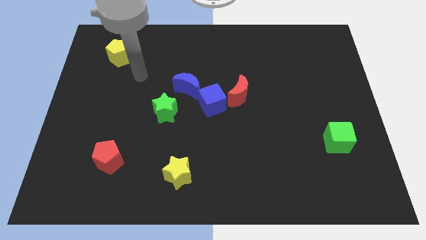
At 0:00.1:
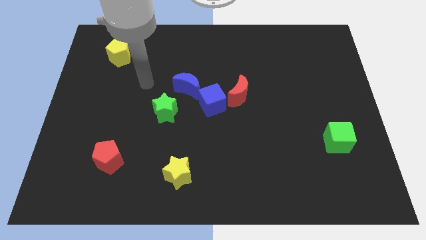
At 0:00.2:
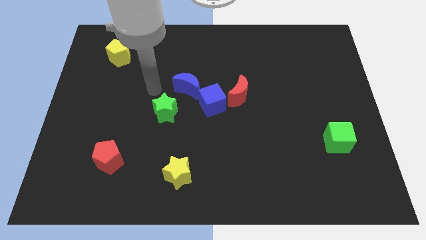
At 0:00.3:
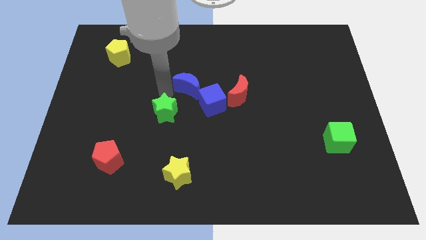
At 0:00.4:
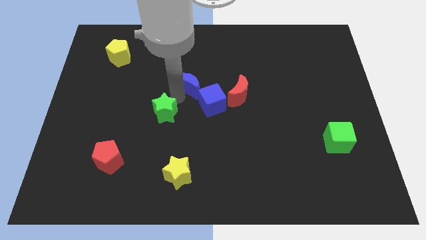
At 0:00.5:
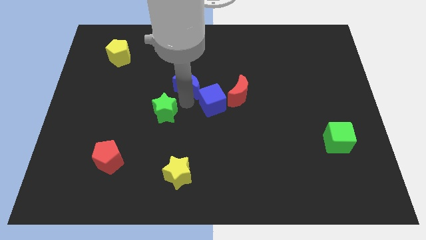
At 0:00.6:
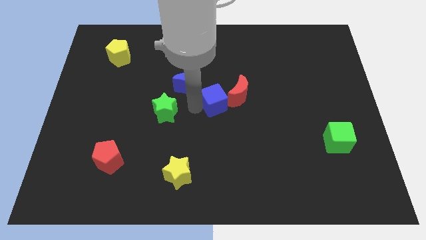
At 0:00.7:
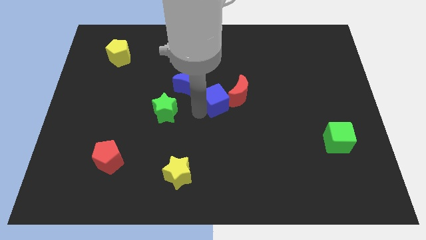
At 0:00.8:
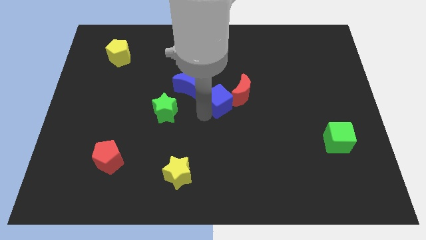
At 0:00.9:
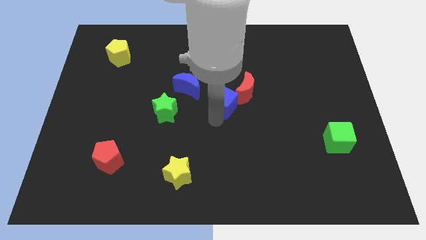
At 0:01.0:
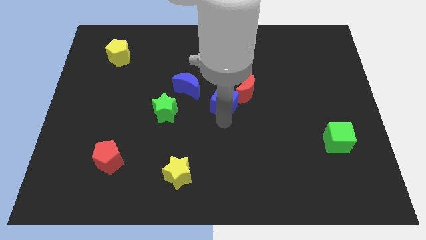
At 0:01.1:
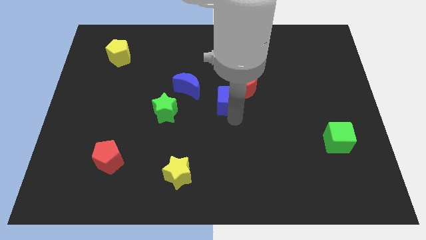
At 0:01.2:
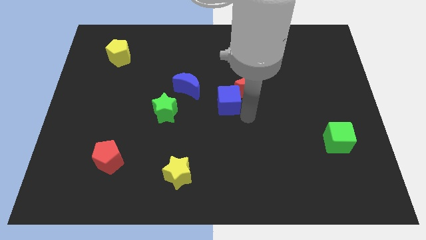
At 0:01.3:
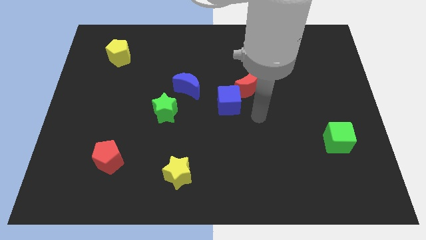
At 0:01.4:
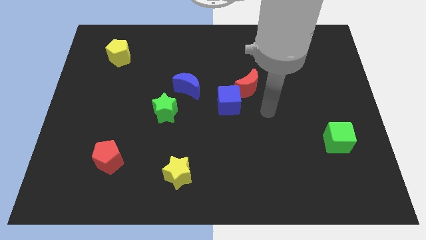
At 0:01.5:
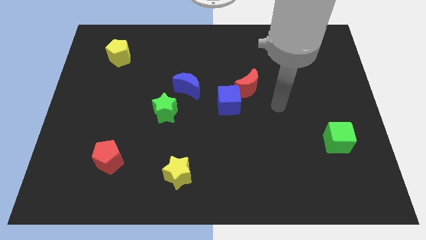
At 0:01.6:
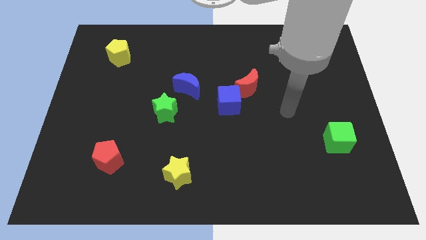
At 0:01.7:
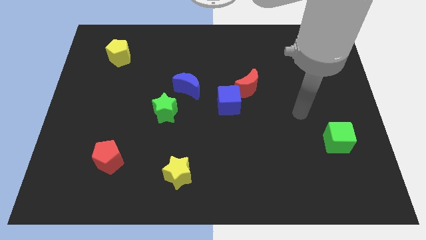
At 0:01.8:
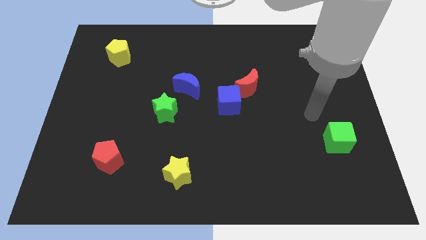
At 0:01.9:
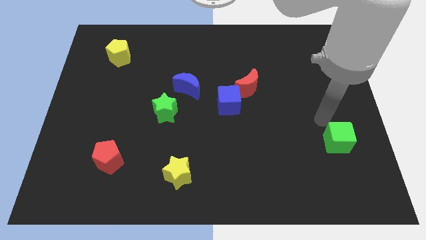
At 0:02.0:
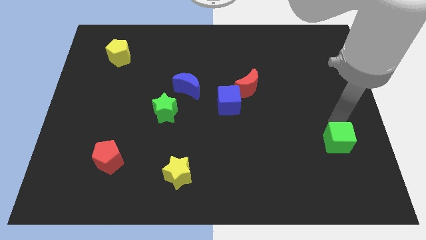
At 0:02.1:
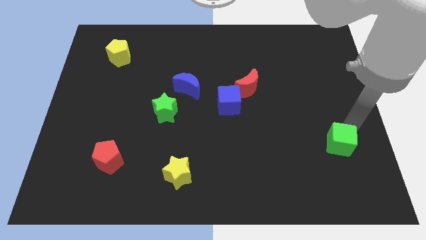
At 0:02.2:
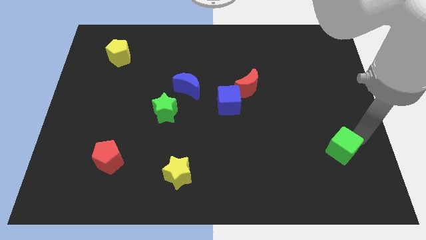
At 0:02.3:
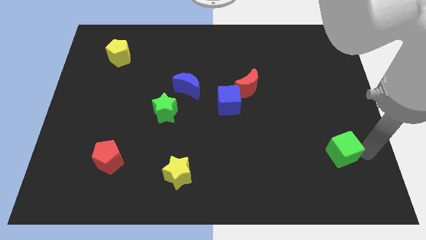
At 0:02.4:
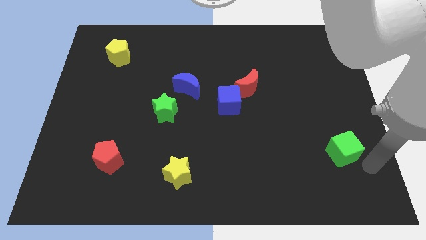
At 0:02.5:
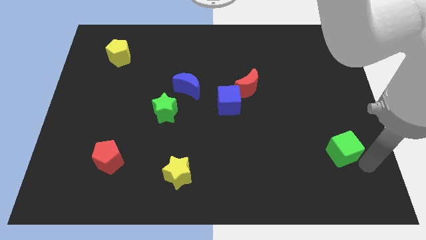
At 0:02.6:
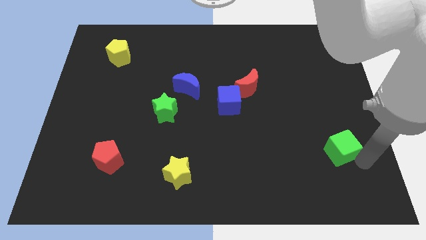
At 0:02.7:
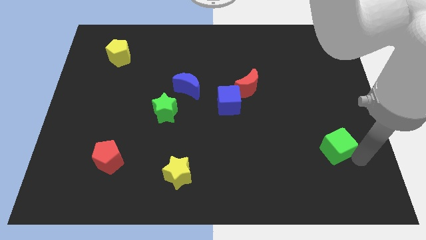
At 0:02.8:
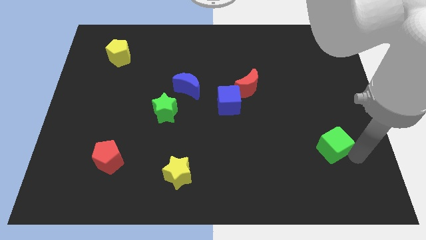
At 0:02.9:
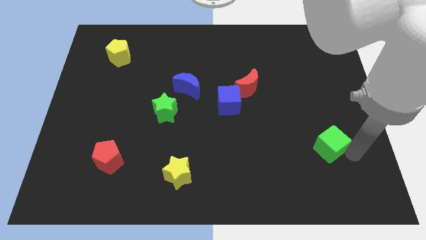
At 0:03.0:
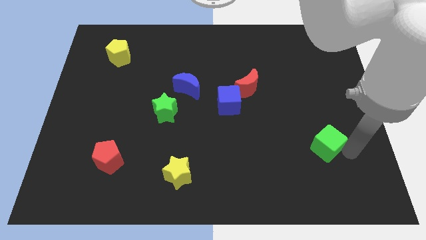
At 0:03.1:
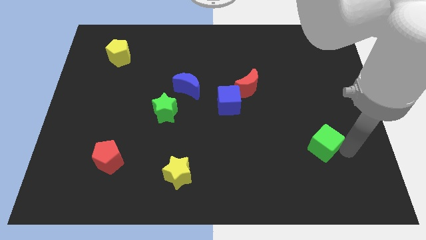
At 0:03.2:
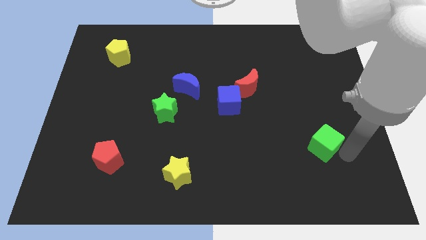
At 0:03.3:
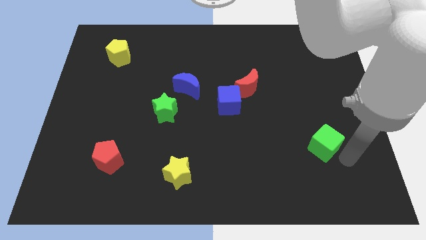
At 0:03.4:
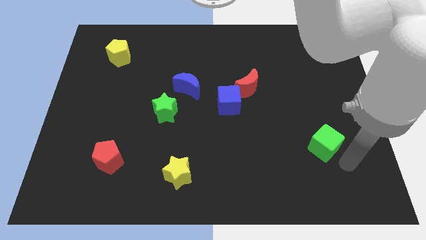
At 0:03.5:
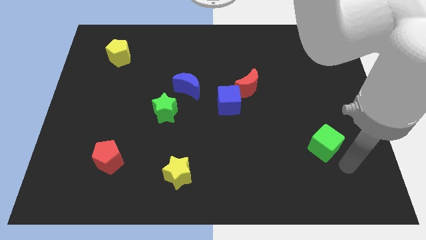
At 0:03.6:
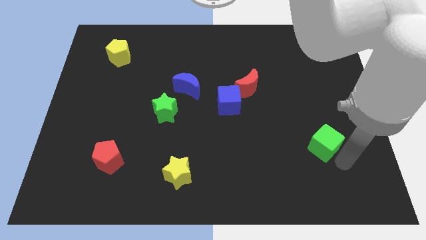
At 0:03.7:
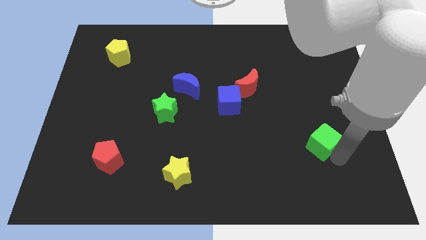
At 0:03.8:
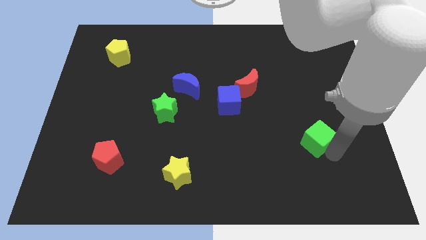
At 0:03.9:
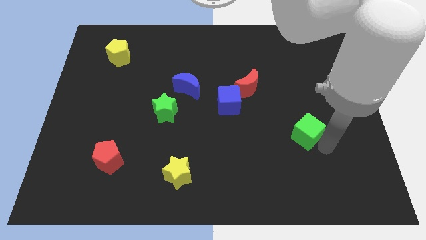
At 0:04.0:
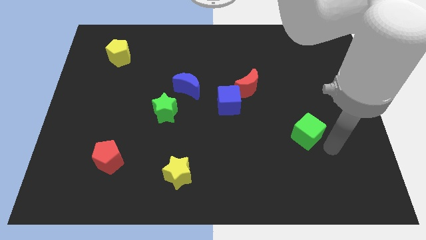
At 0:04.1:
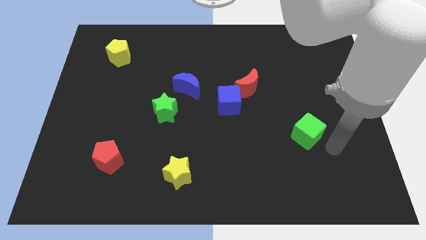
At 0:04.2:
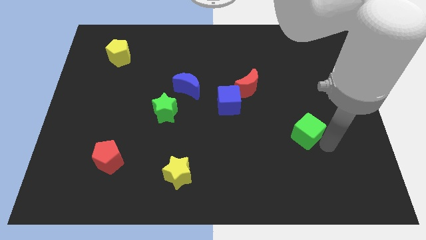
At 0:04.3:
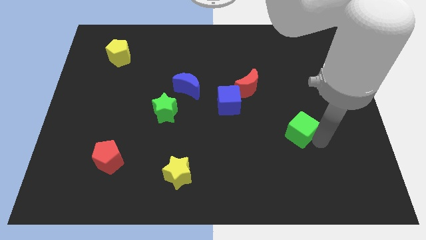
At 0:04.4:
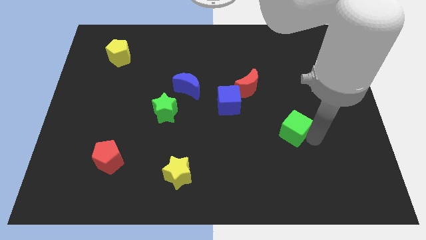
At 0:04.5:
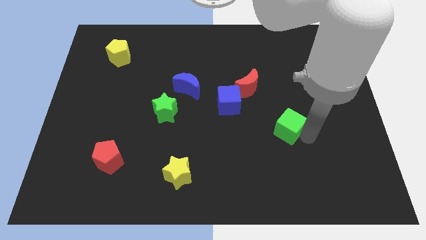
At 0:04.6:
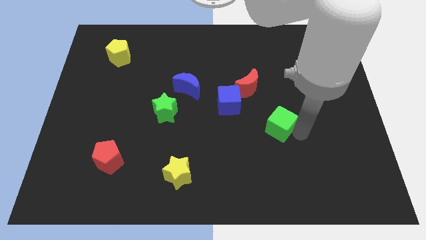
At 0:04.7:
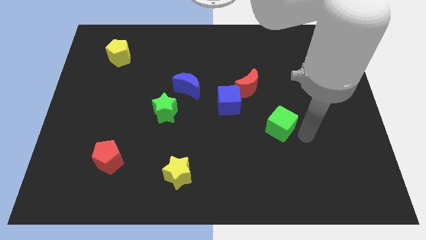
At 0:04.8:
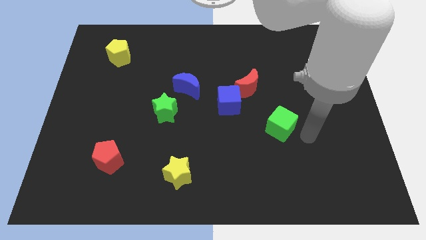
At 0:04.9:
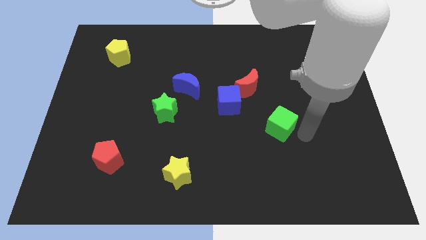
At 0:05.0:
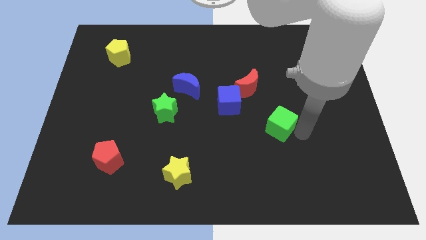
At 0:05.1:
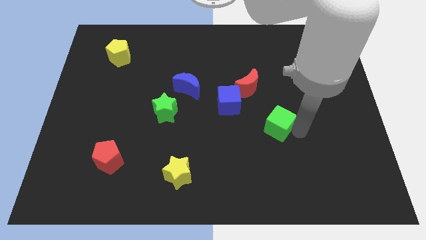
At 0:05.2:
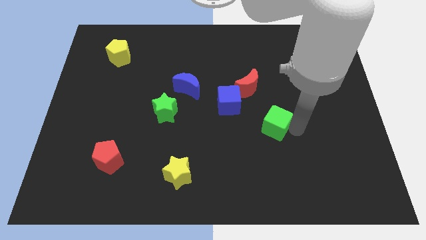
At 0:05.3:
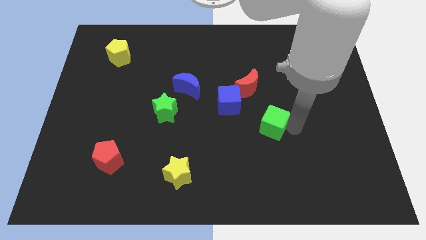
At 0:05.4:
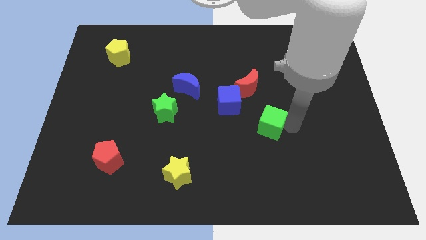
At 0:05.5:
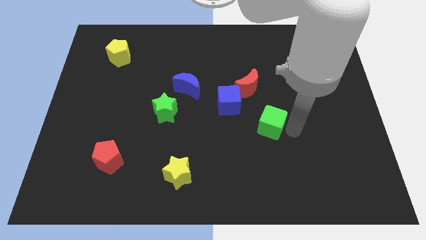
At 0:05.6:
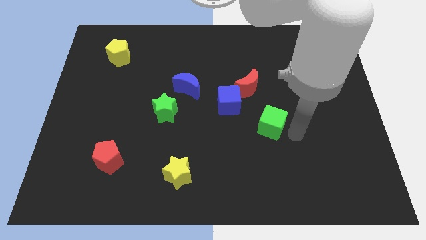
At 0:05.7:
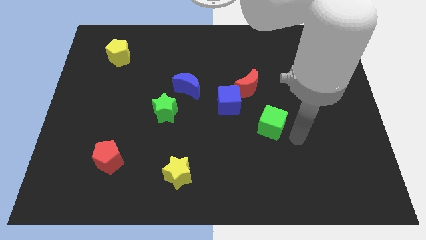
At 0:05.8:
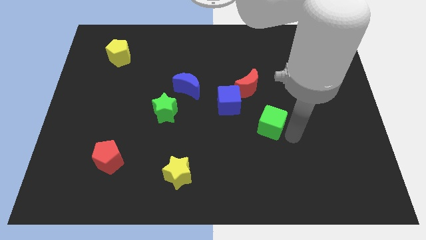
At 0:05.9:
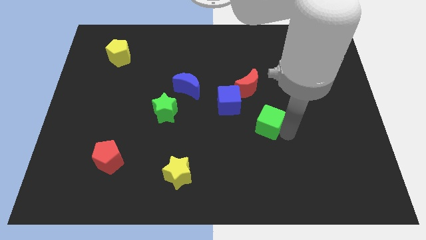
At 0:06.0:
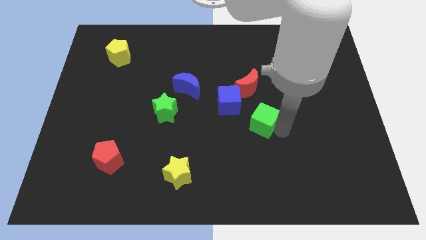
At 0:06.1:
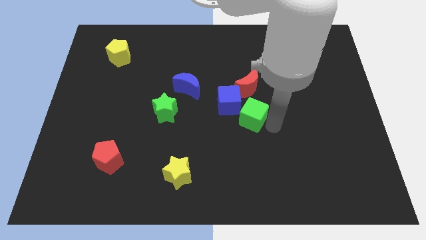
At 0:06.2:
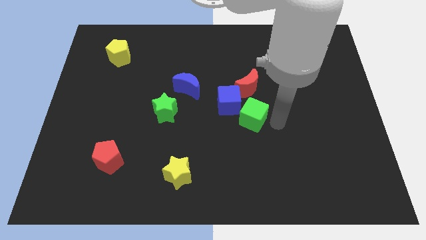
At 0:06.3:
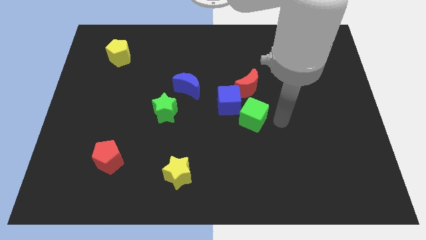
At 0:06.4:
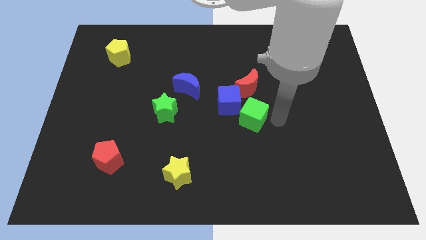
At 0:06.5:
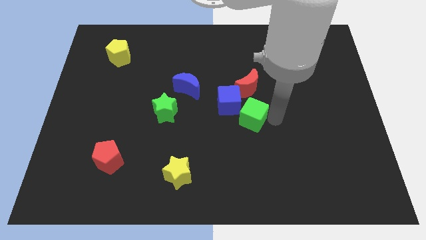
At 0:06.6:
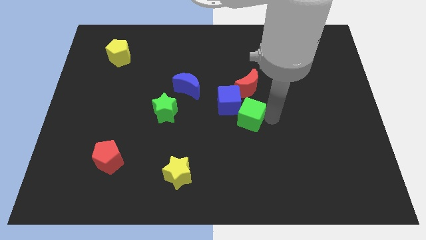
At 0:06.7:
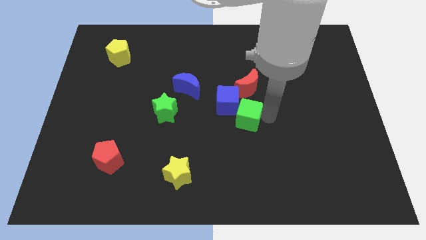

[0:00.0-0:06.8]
put the green cube to the blue cube

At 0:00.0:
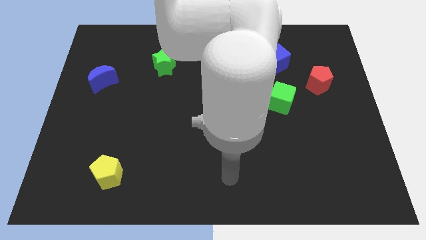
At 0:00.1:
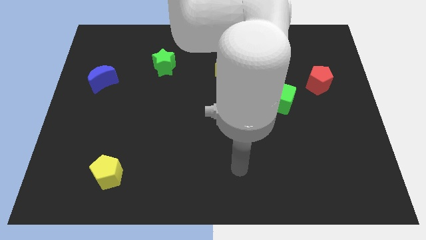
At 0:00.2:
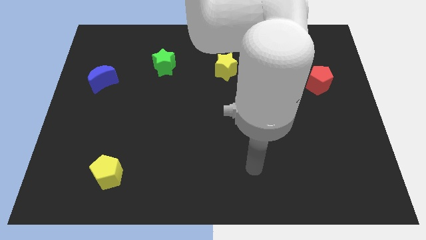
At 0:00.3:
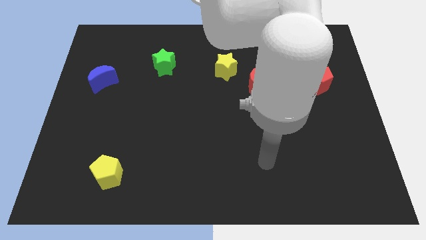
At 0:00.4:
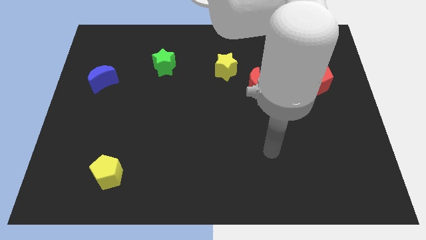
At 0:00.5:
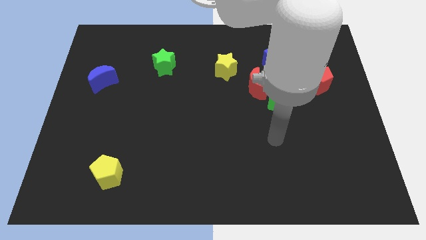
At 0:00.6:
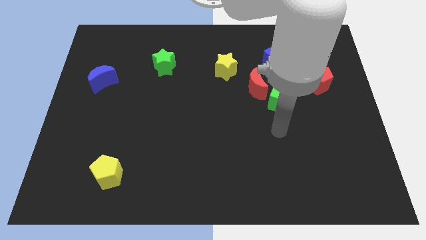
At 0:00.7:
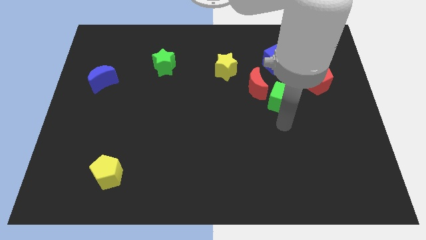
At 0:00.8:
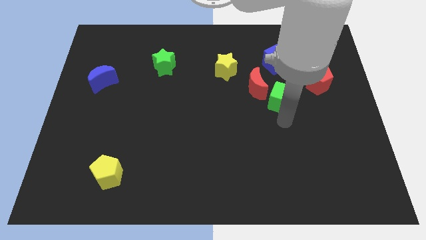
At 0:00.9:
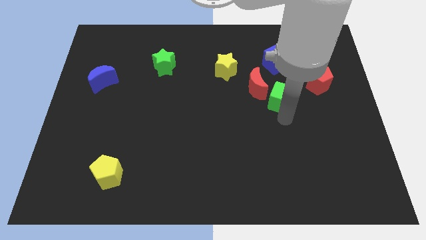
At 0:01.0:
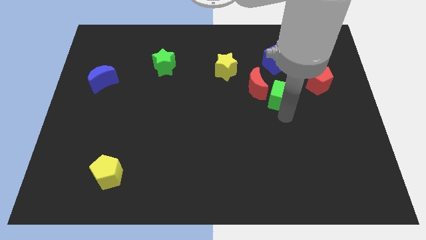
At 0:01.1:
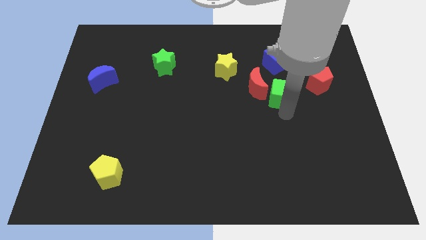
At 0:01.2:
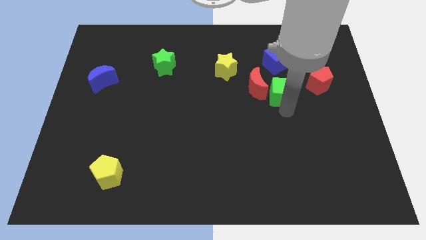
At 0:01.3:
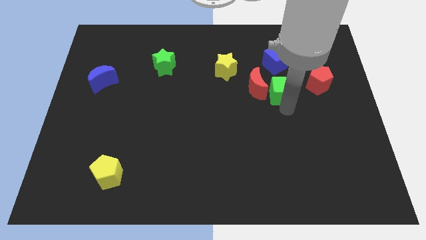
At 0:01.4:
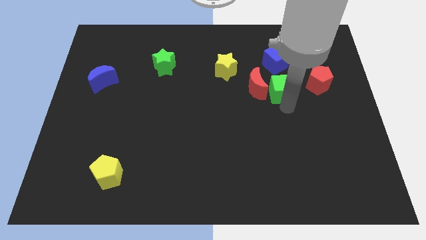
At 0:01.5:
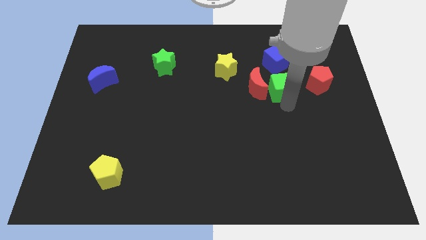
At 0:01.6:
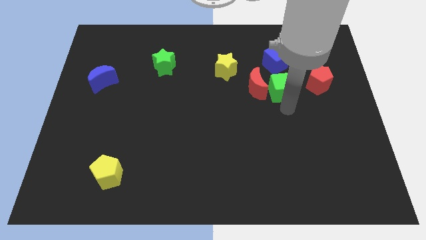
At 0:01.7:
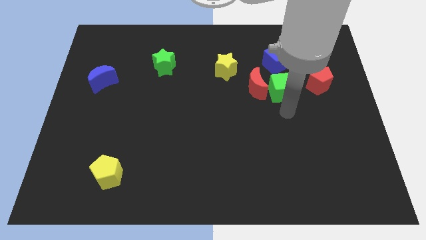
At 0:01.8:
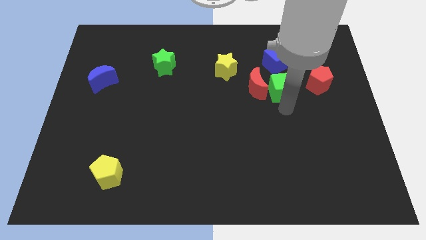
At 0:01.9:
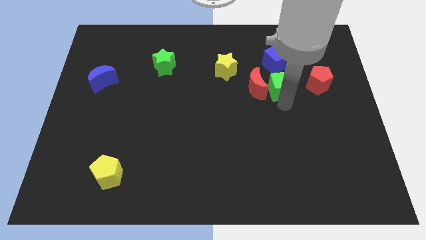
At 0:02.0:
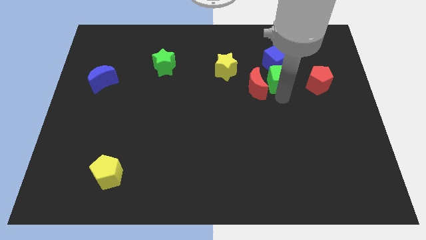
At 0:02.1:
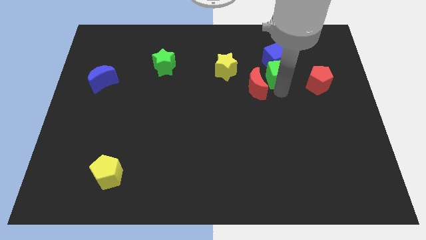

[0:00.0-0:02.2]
move the green cube close to the blue cube
